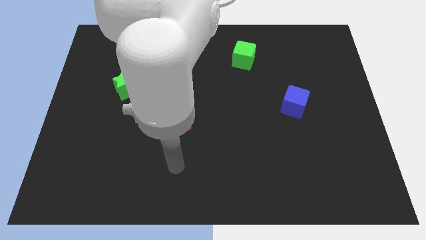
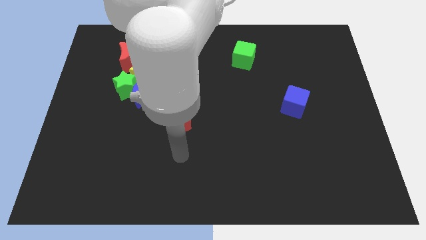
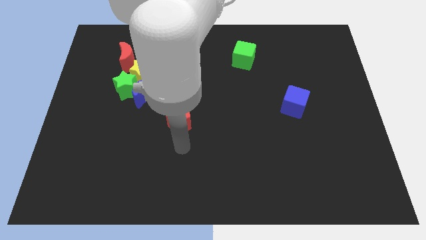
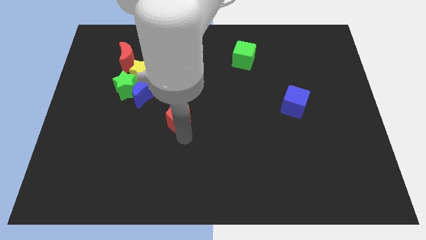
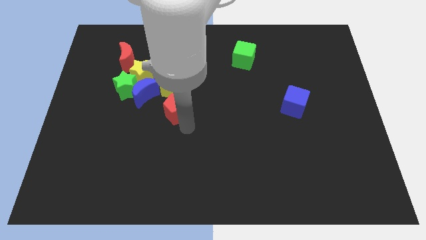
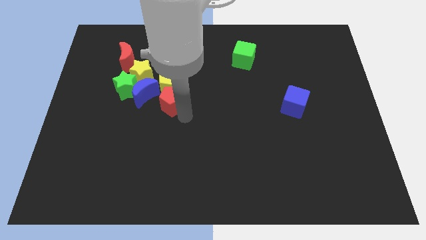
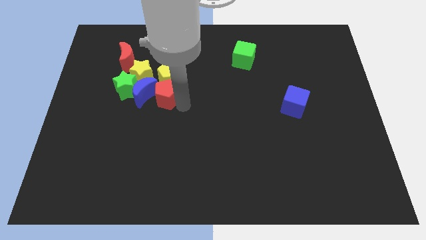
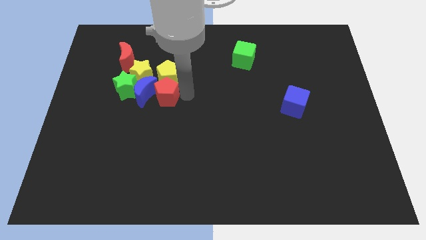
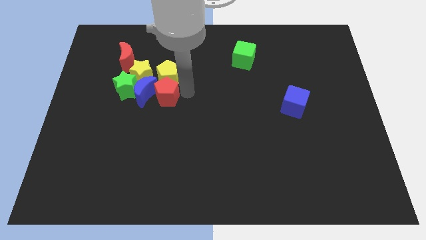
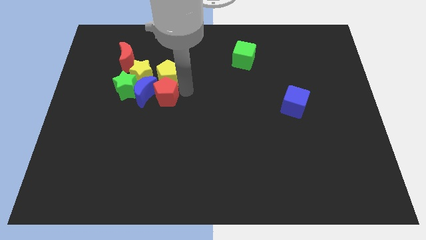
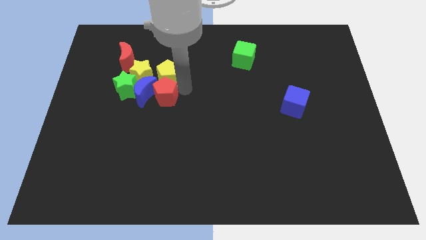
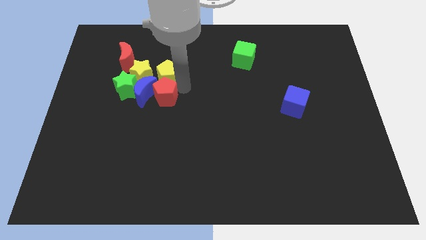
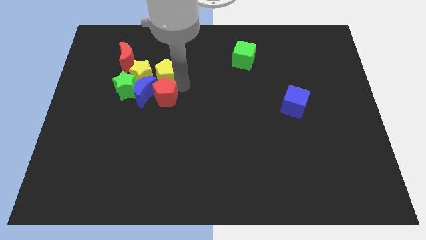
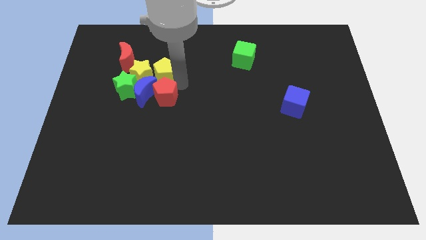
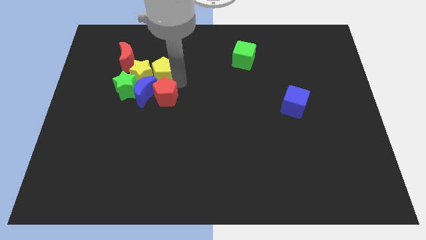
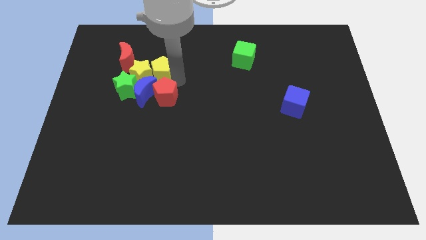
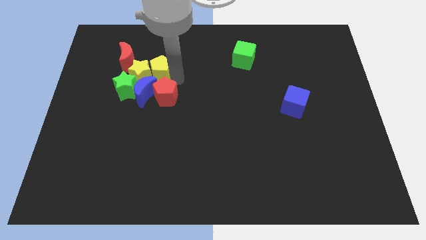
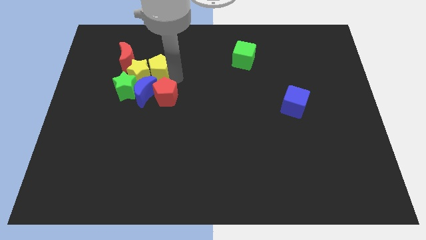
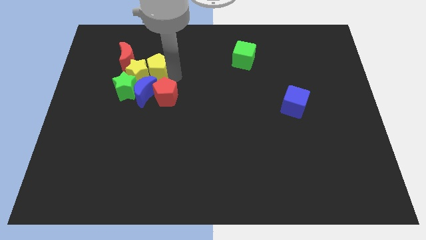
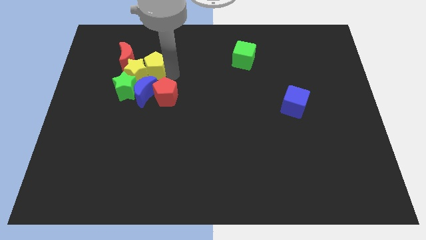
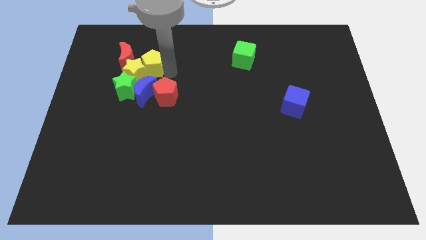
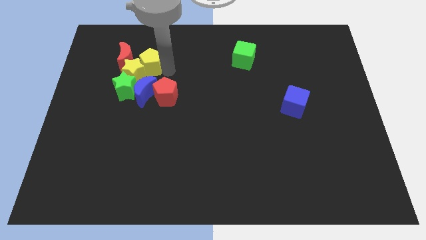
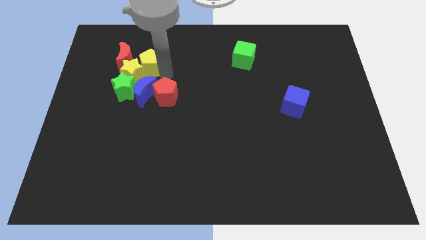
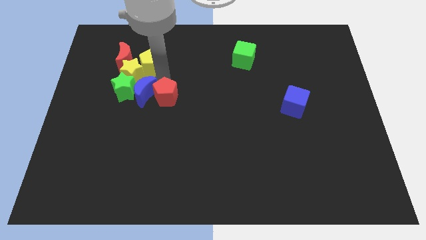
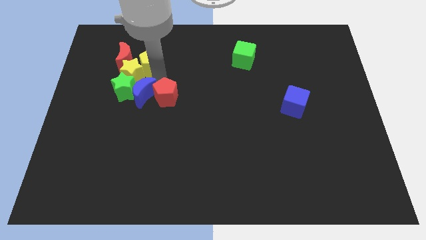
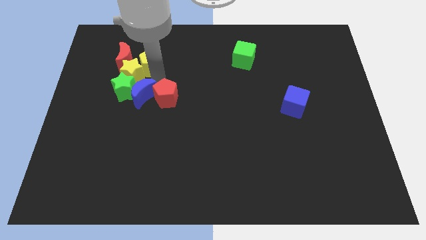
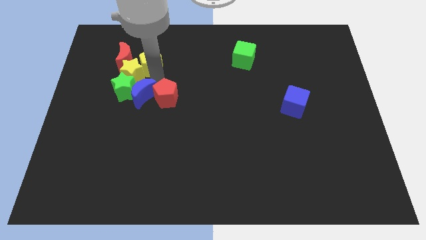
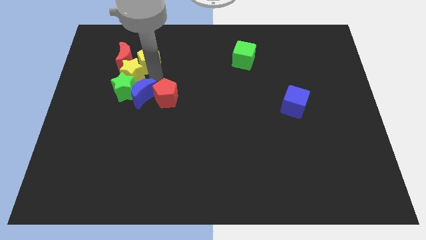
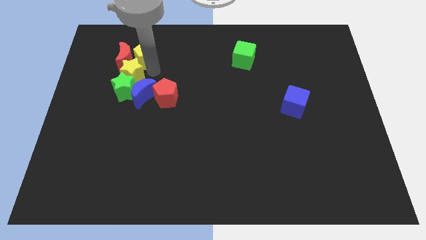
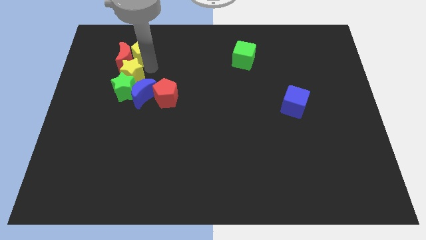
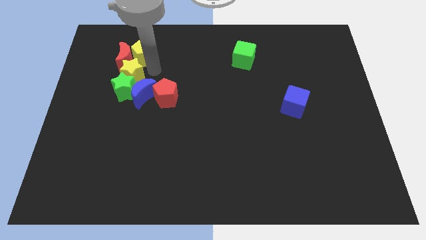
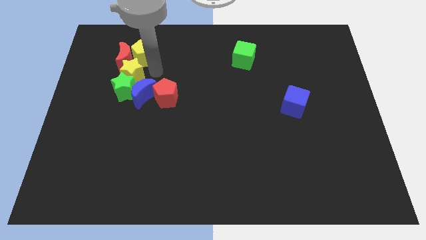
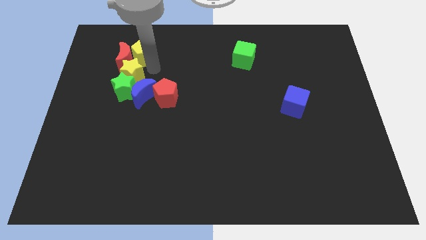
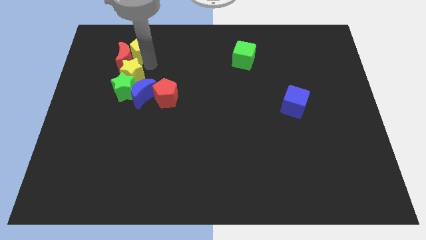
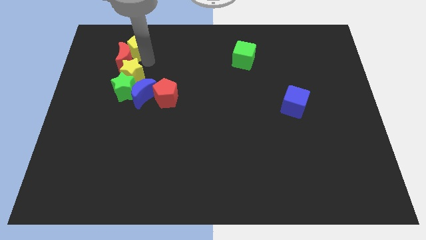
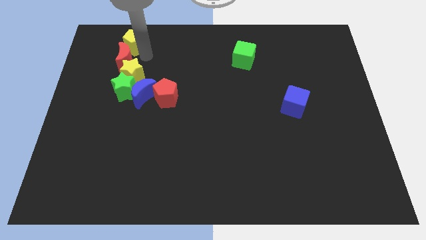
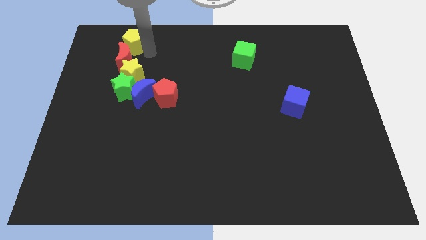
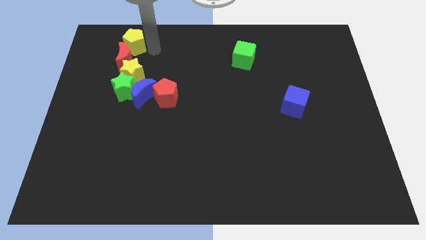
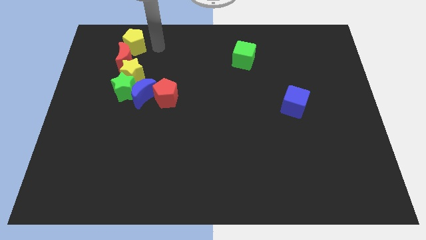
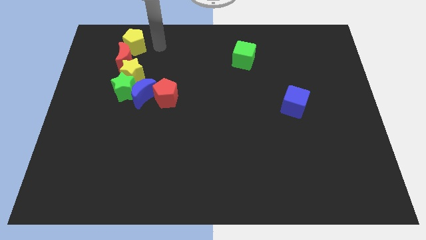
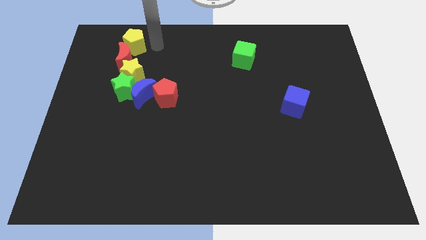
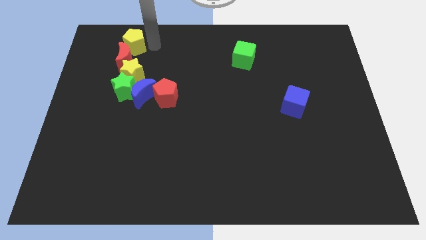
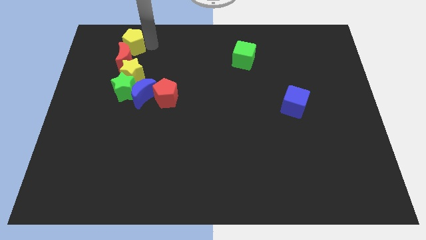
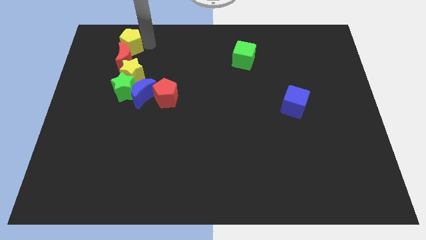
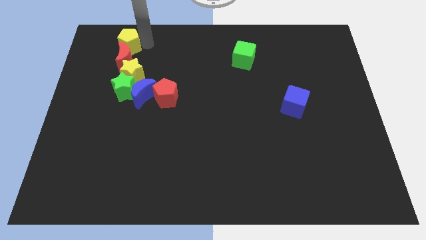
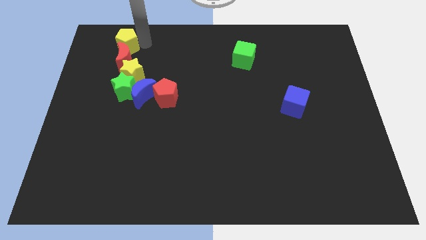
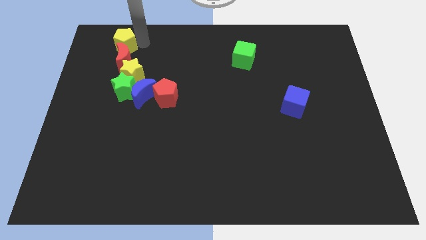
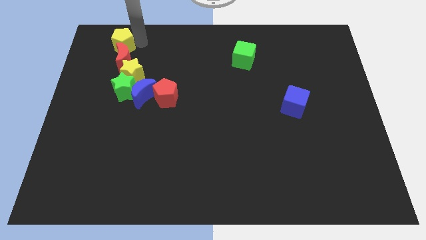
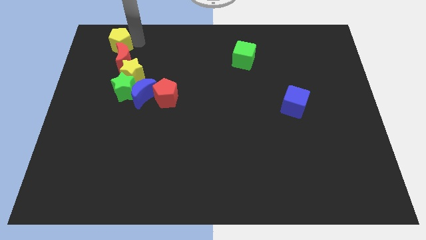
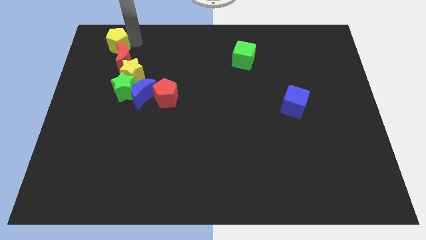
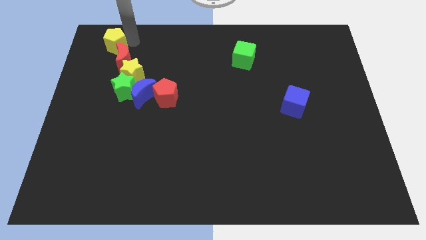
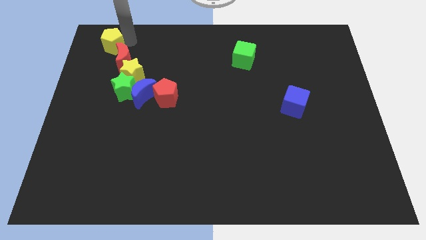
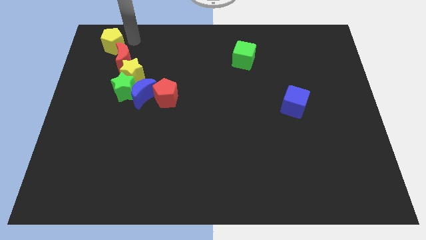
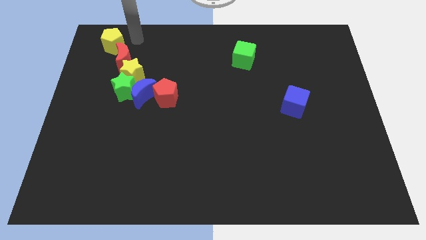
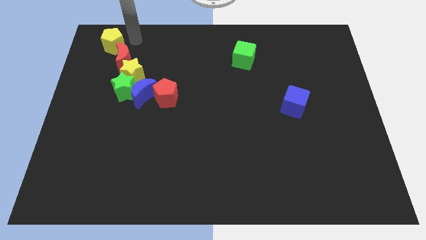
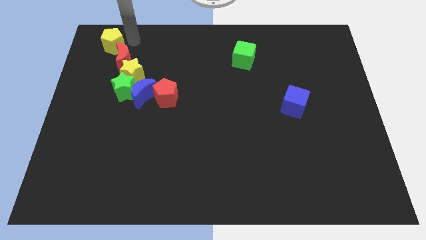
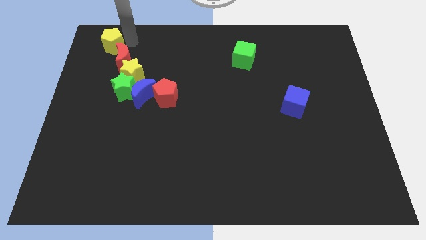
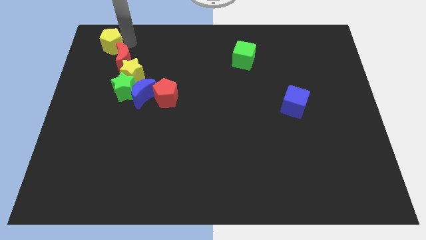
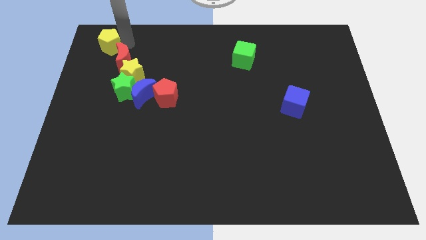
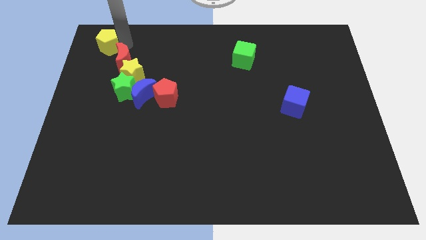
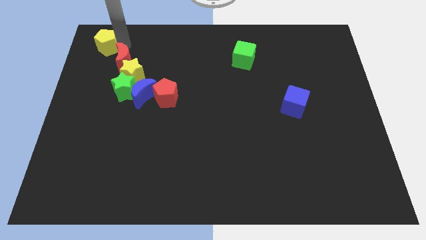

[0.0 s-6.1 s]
move the yellow pentagon to the top left corner

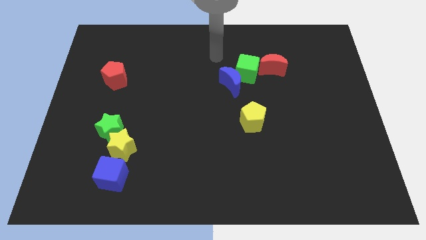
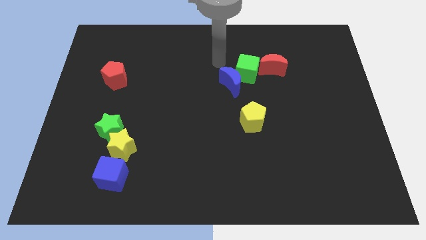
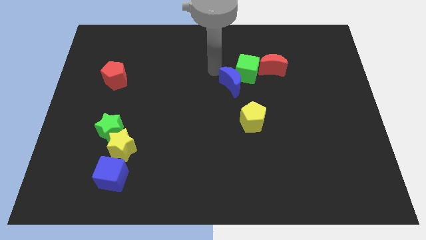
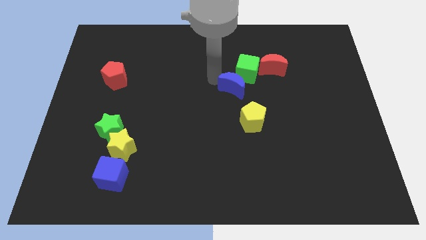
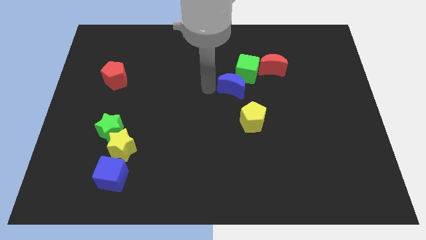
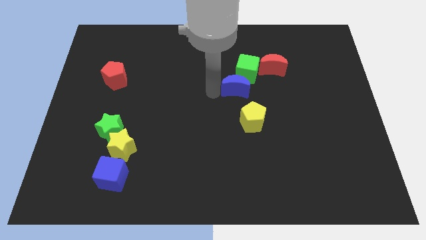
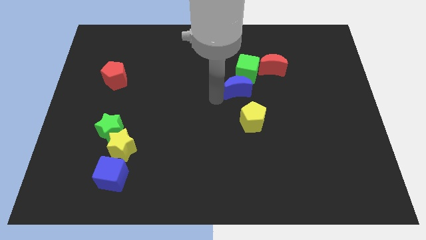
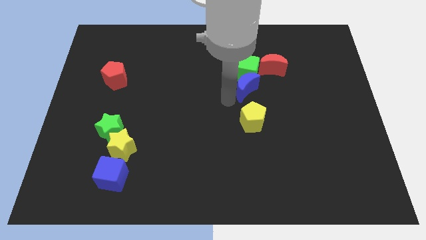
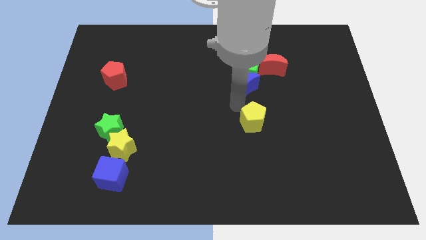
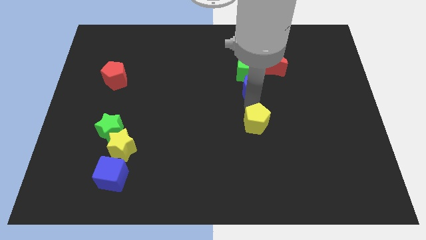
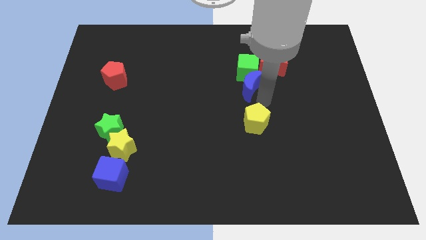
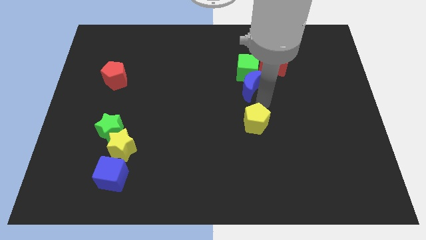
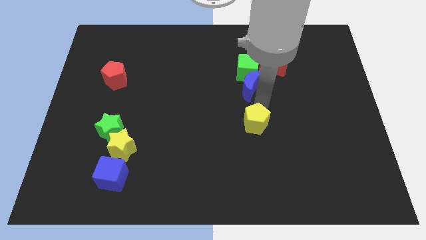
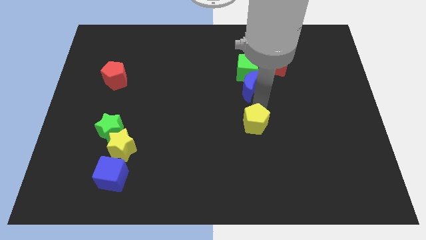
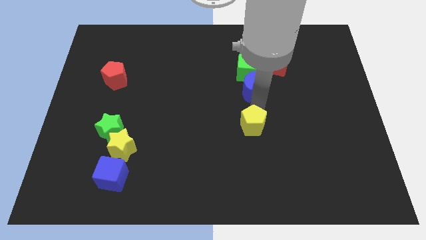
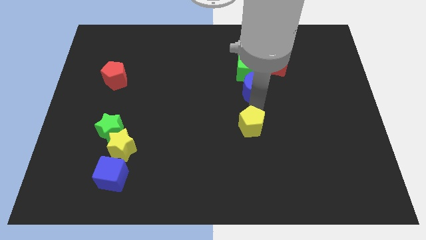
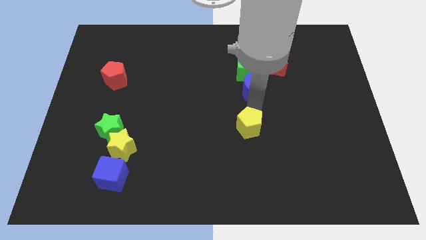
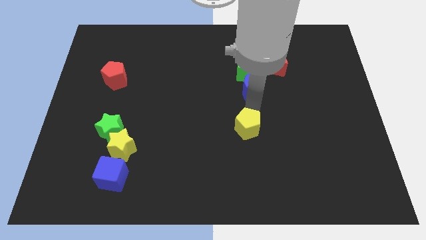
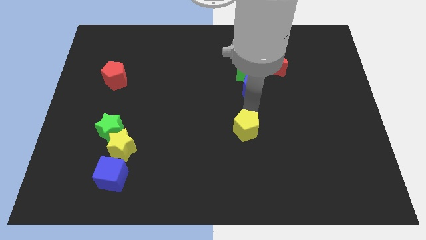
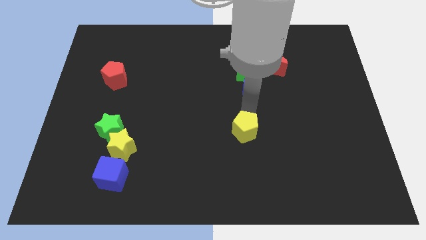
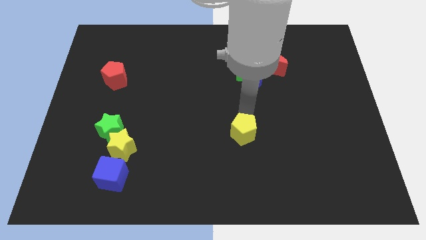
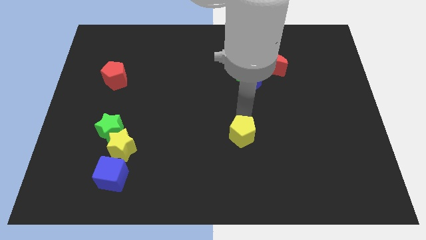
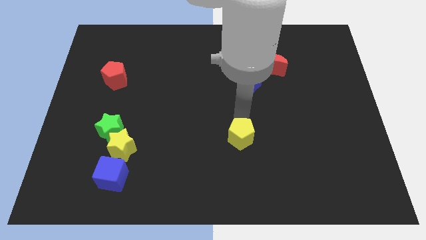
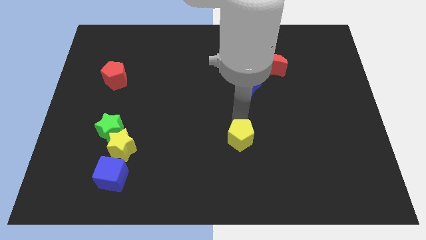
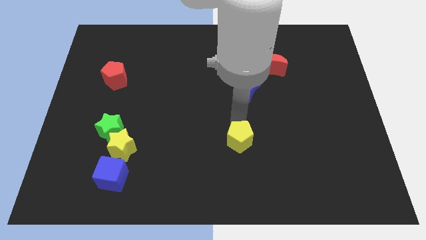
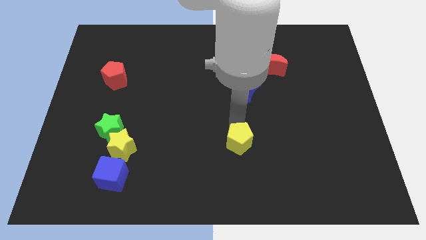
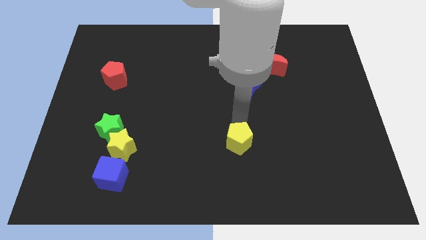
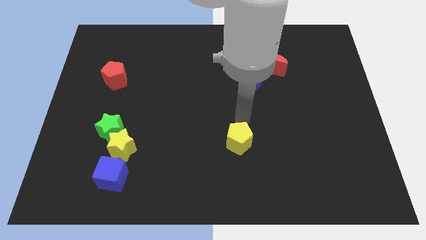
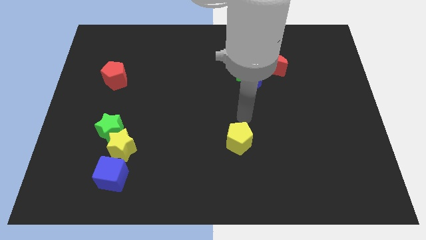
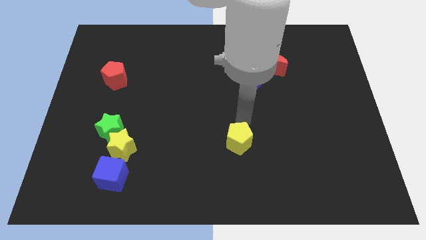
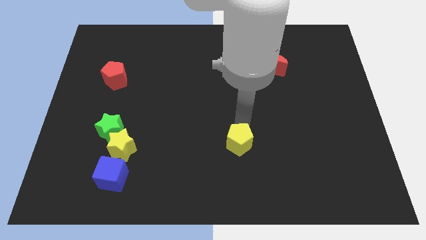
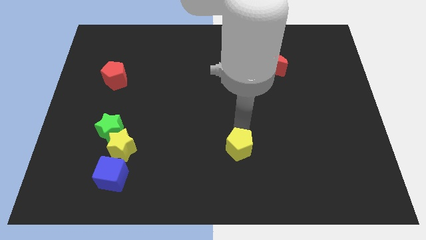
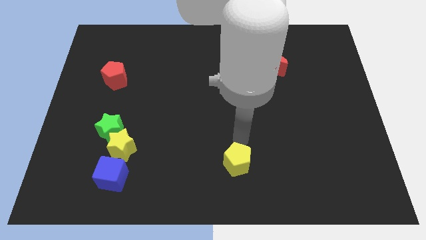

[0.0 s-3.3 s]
put the yellow pentagon to the bottom side
